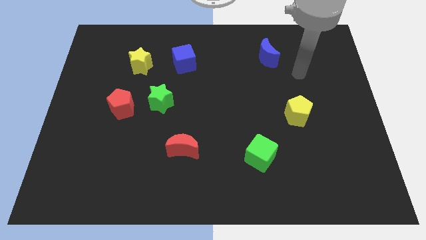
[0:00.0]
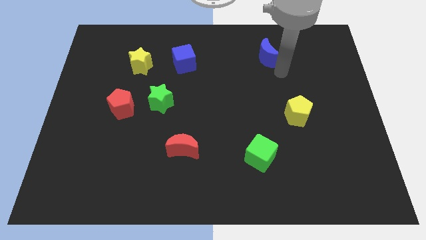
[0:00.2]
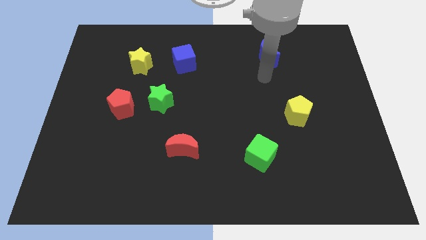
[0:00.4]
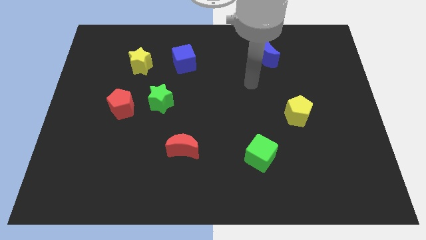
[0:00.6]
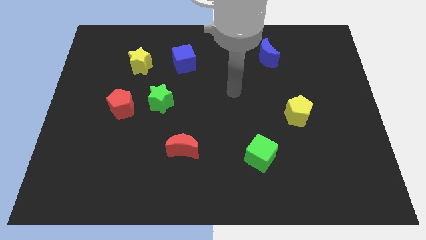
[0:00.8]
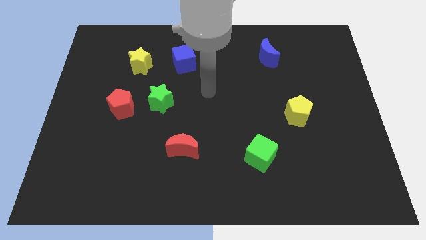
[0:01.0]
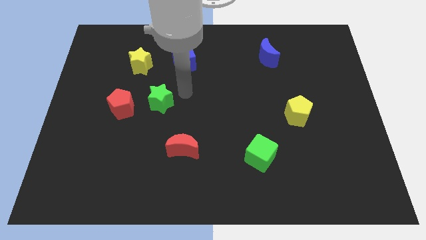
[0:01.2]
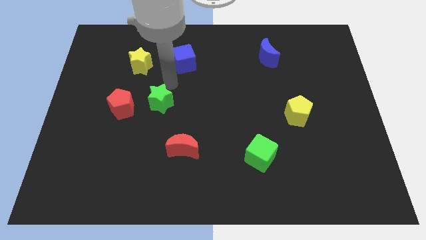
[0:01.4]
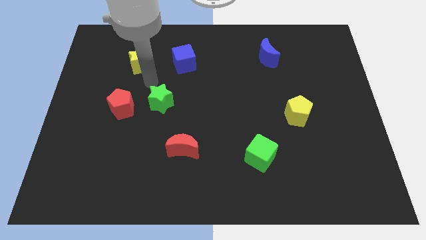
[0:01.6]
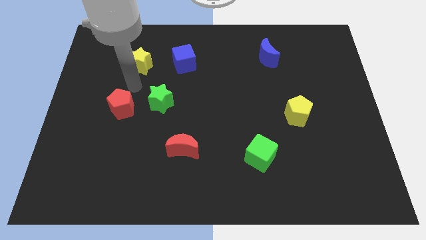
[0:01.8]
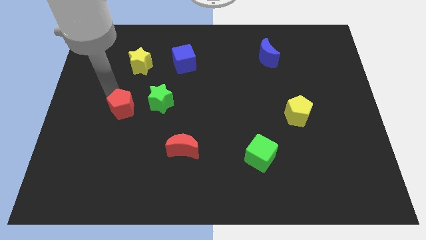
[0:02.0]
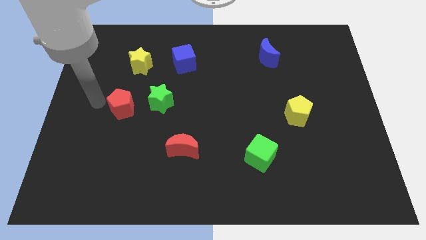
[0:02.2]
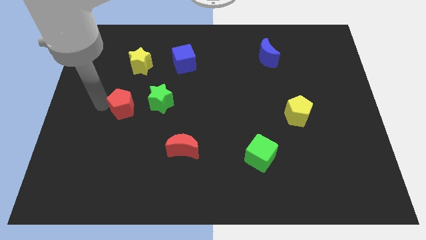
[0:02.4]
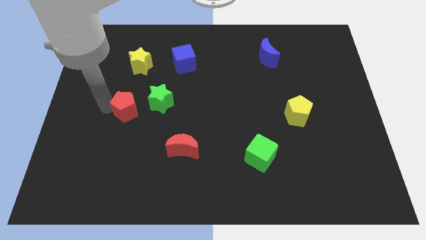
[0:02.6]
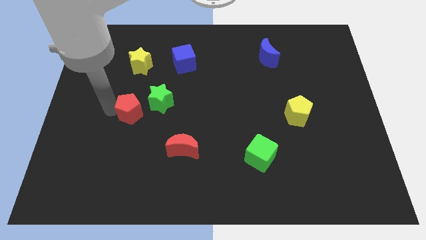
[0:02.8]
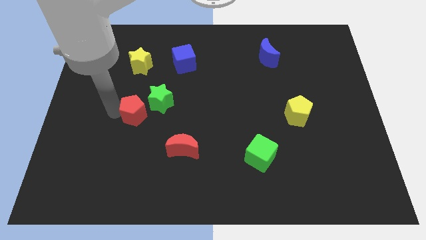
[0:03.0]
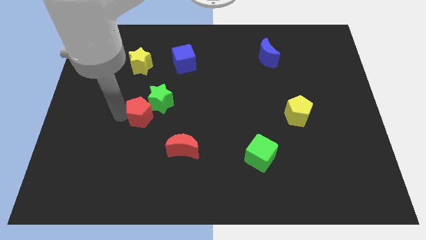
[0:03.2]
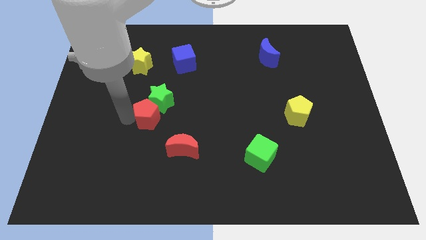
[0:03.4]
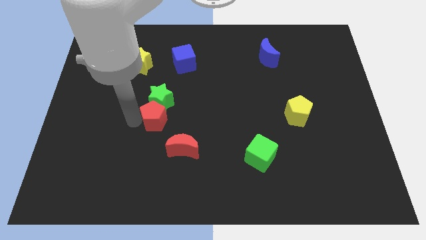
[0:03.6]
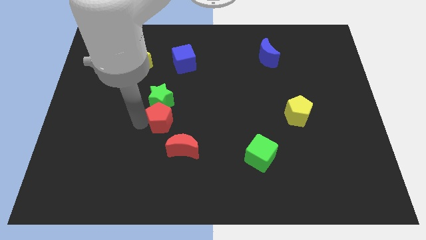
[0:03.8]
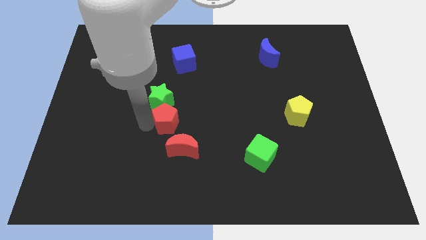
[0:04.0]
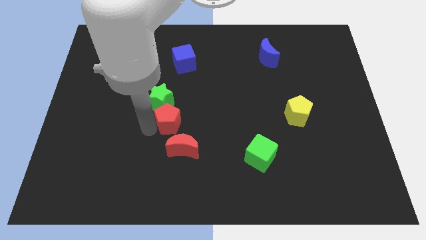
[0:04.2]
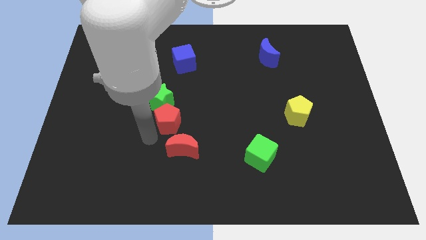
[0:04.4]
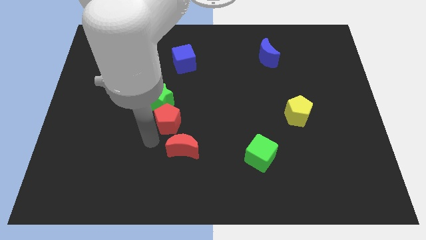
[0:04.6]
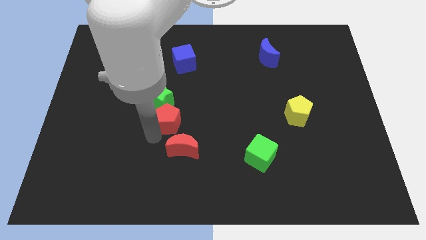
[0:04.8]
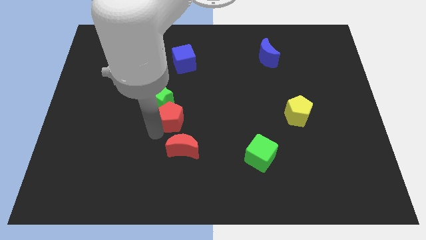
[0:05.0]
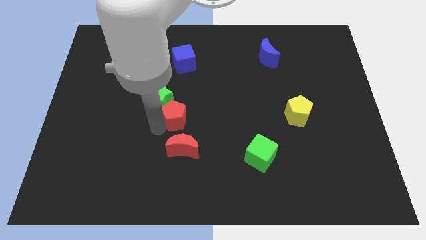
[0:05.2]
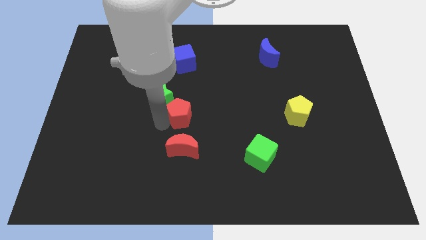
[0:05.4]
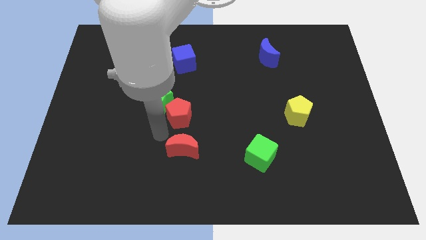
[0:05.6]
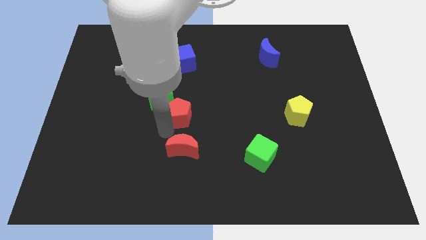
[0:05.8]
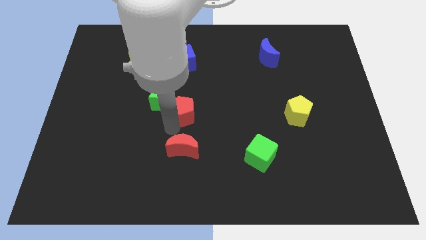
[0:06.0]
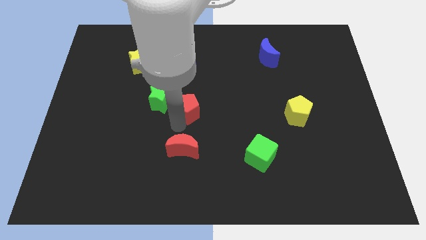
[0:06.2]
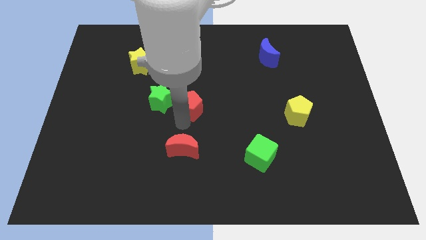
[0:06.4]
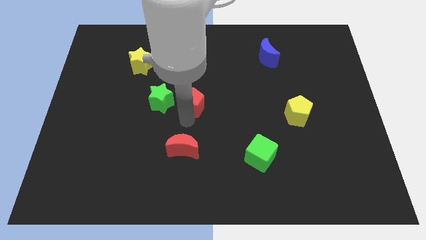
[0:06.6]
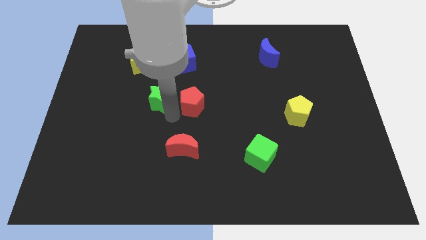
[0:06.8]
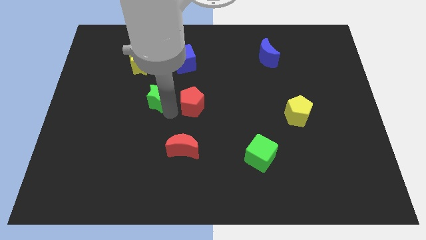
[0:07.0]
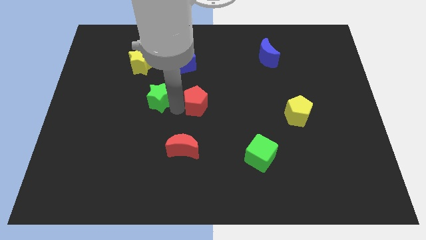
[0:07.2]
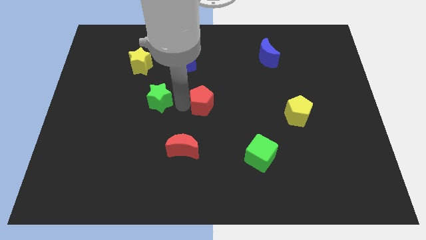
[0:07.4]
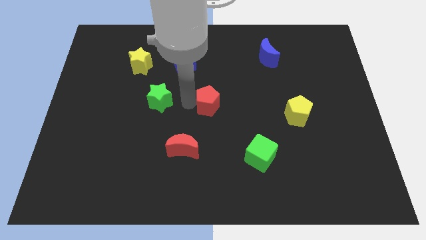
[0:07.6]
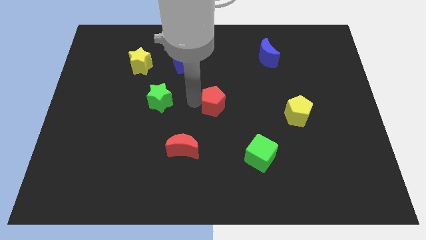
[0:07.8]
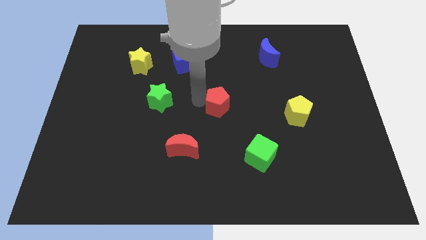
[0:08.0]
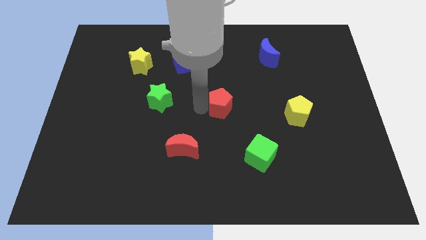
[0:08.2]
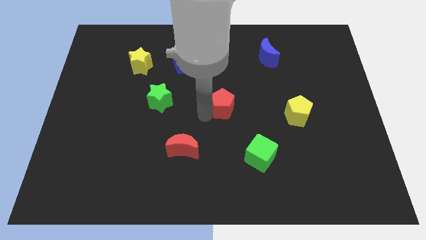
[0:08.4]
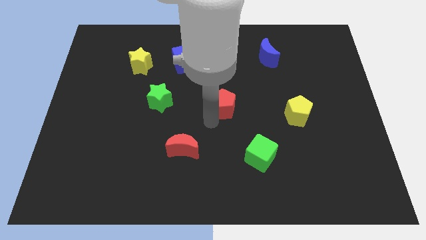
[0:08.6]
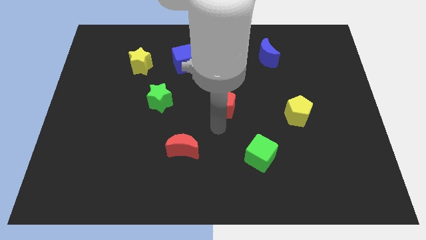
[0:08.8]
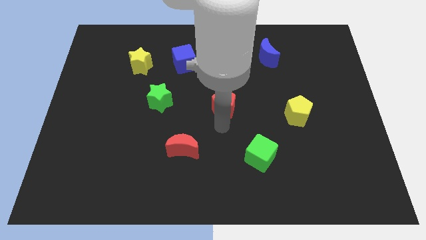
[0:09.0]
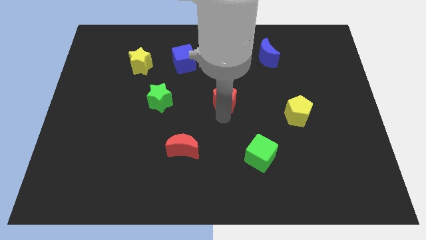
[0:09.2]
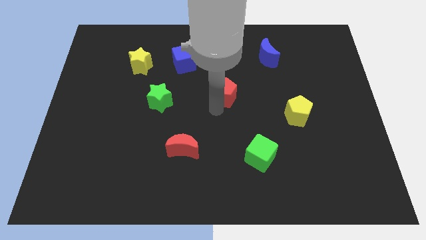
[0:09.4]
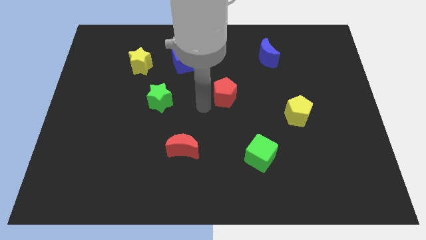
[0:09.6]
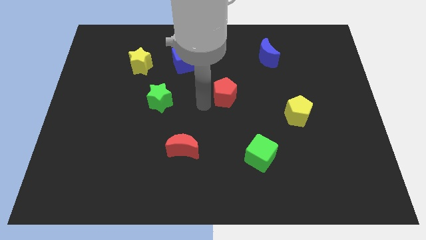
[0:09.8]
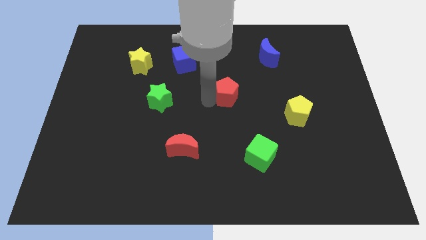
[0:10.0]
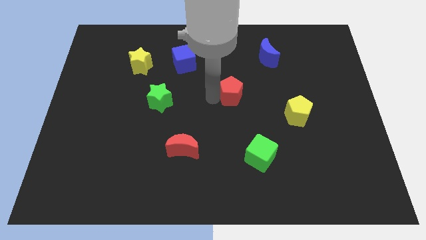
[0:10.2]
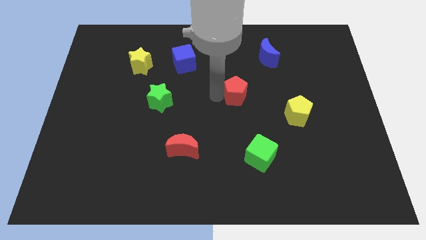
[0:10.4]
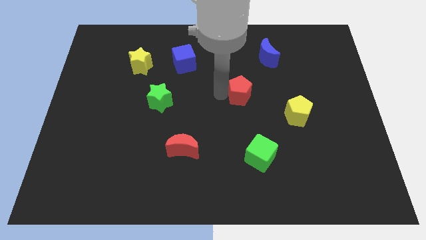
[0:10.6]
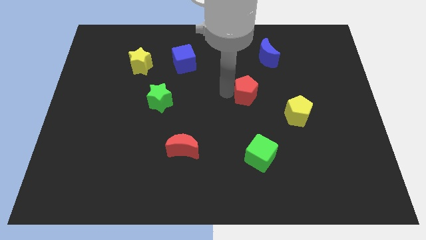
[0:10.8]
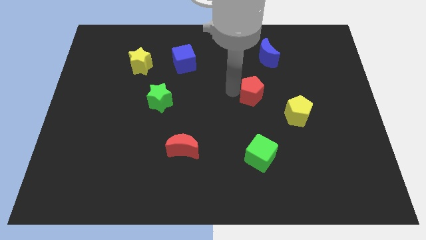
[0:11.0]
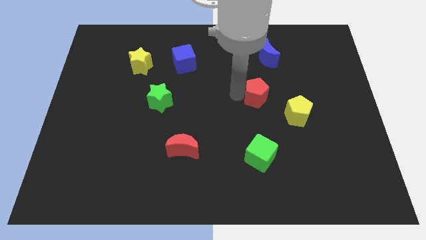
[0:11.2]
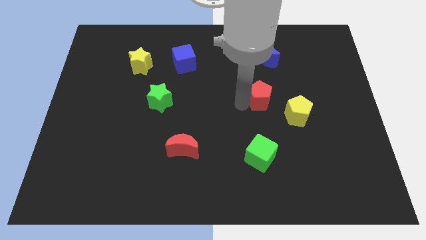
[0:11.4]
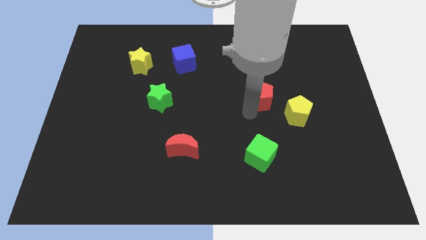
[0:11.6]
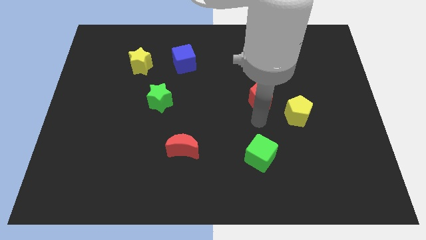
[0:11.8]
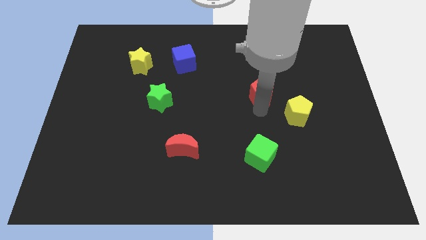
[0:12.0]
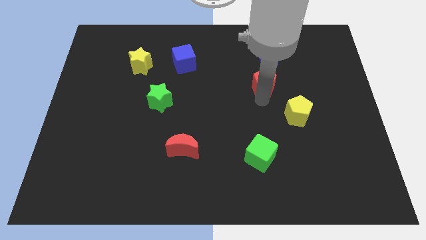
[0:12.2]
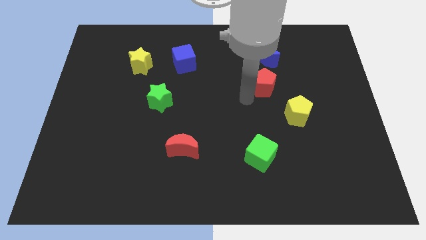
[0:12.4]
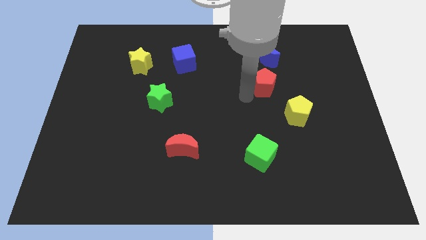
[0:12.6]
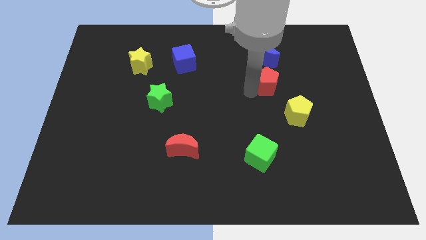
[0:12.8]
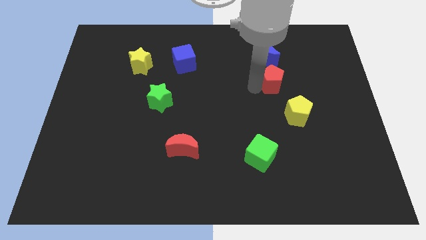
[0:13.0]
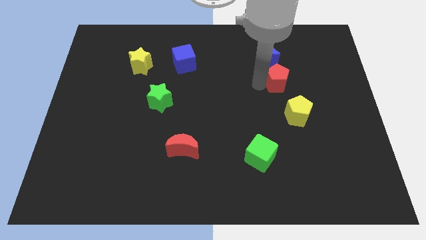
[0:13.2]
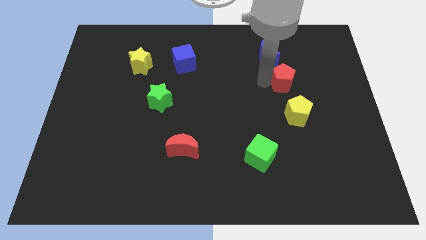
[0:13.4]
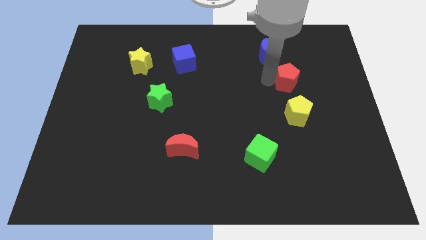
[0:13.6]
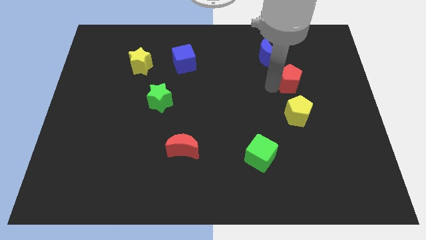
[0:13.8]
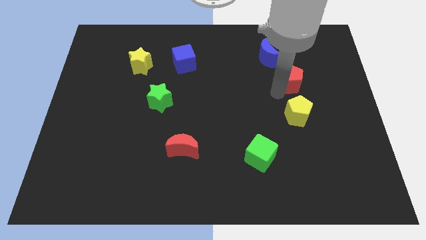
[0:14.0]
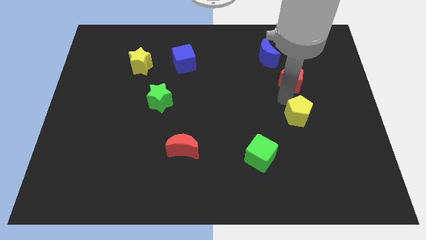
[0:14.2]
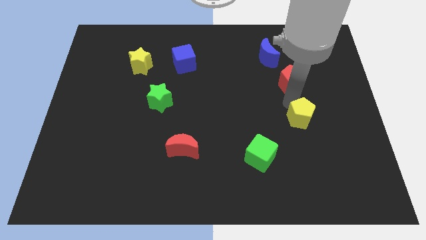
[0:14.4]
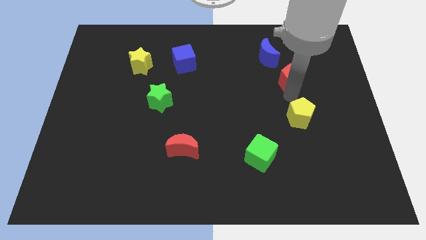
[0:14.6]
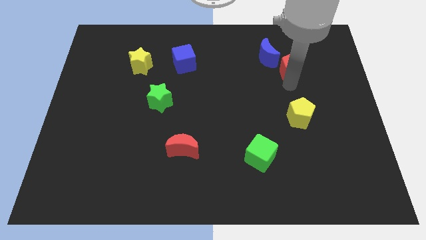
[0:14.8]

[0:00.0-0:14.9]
move the red pentagon just right of the blue moon
